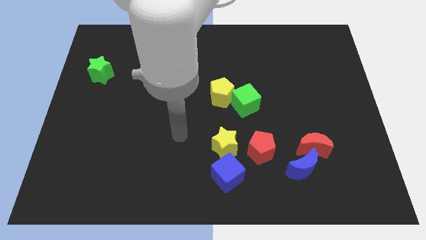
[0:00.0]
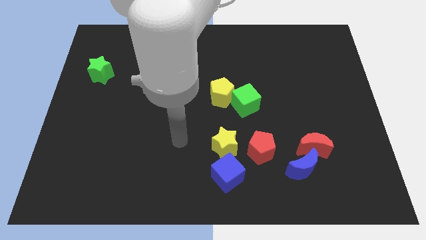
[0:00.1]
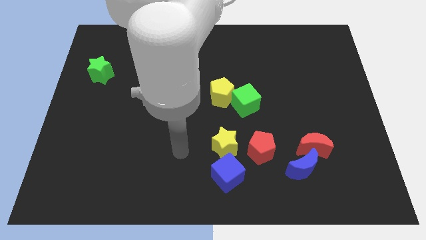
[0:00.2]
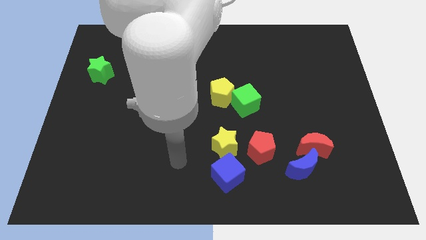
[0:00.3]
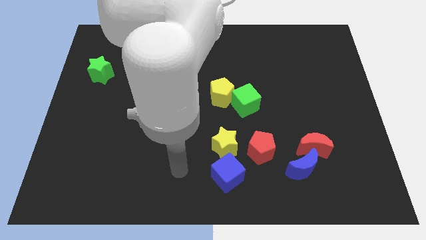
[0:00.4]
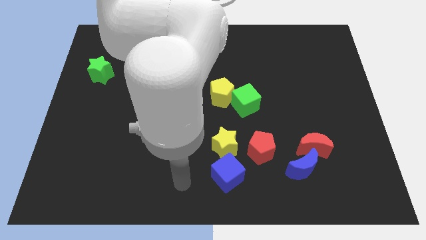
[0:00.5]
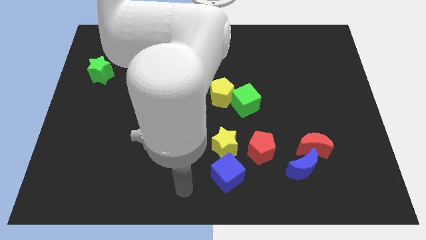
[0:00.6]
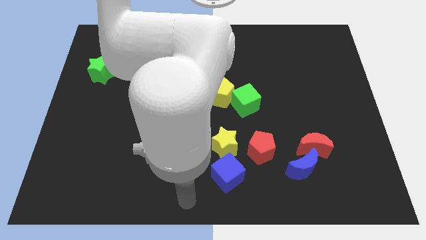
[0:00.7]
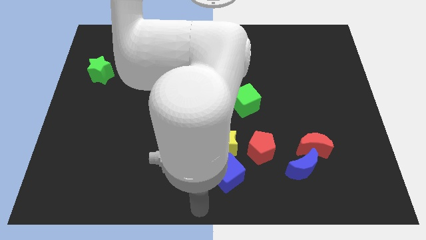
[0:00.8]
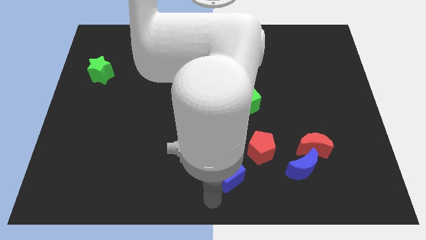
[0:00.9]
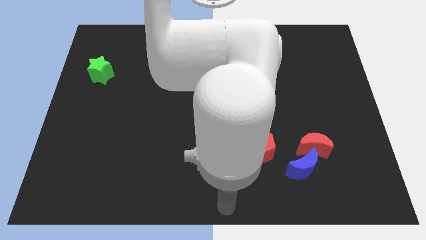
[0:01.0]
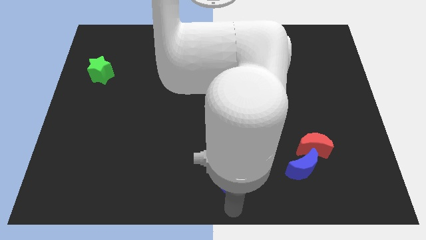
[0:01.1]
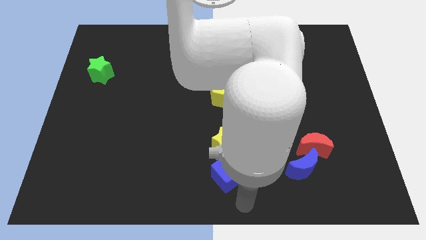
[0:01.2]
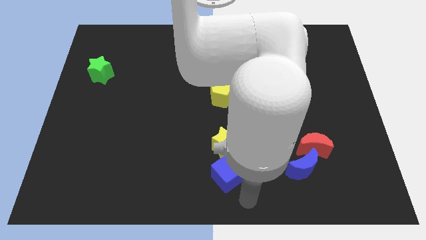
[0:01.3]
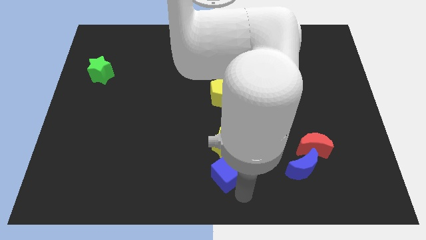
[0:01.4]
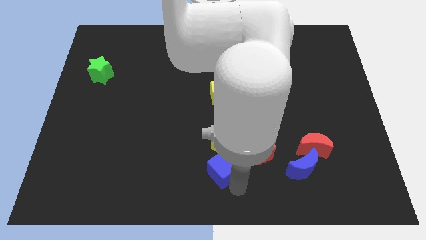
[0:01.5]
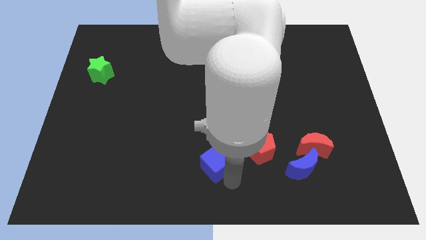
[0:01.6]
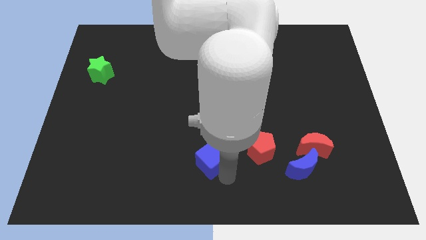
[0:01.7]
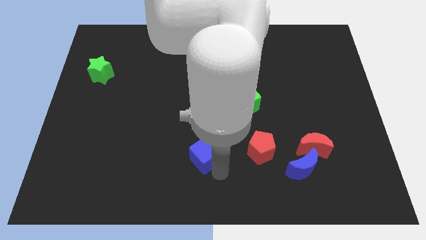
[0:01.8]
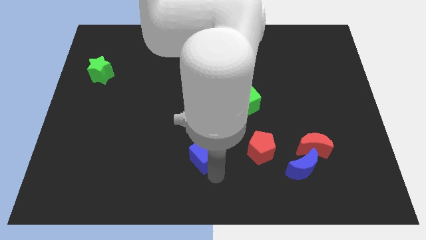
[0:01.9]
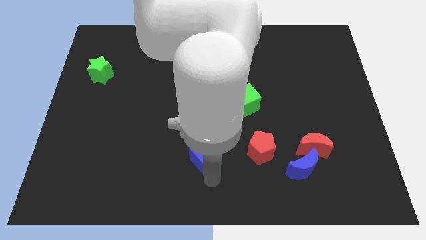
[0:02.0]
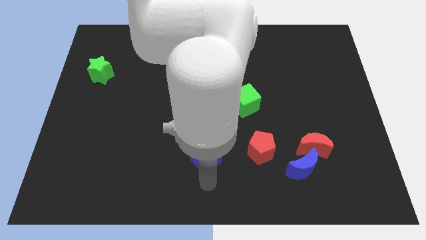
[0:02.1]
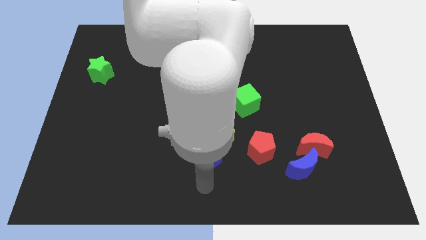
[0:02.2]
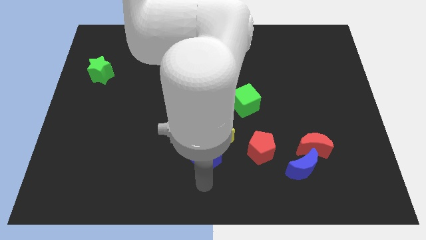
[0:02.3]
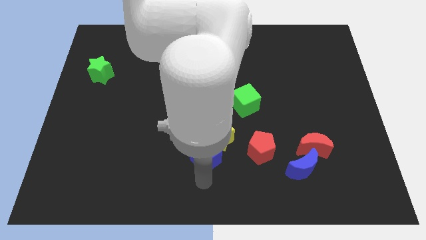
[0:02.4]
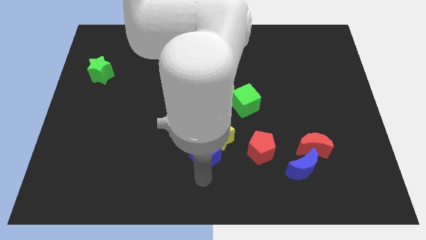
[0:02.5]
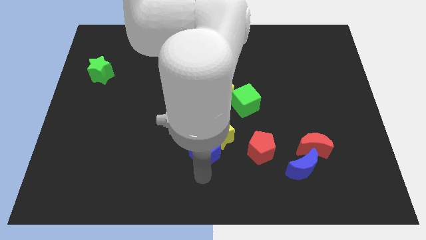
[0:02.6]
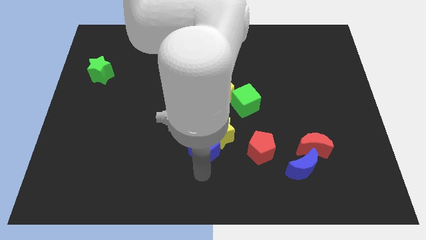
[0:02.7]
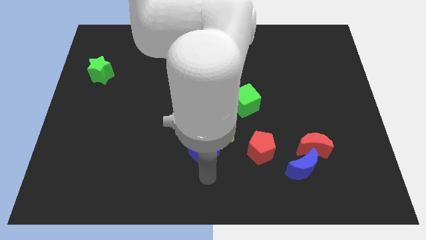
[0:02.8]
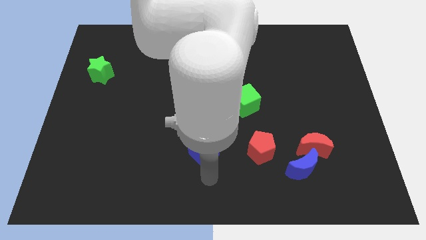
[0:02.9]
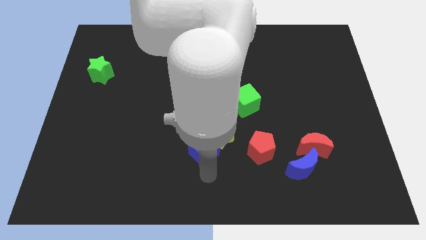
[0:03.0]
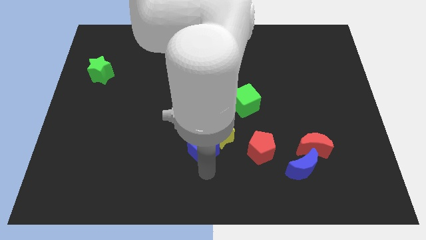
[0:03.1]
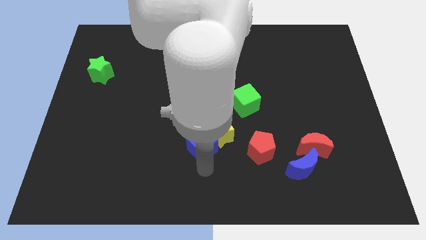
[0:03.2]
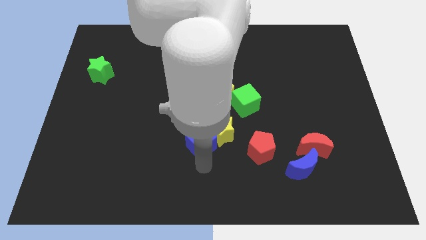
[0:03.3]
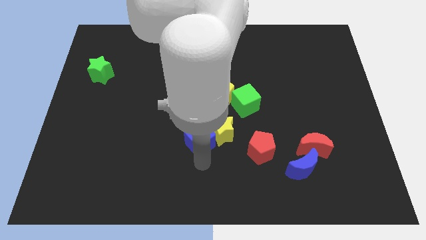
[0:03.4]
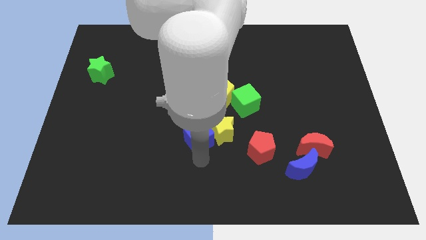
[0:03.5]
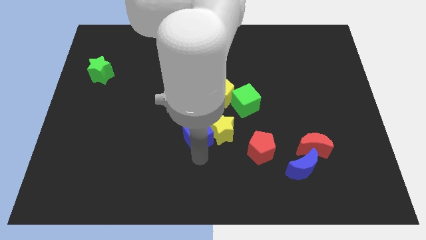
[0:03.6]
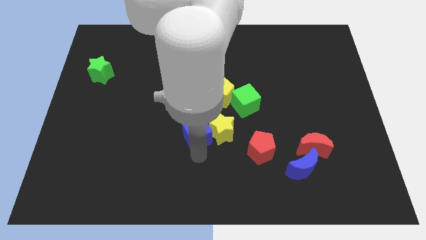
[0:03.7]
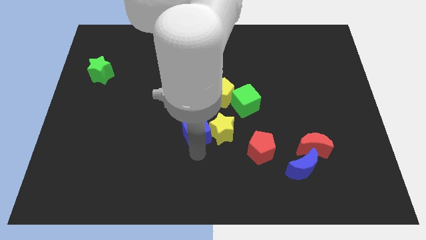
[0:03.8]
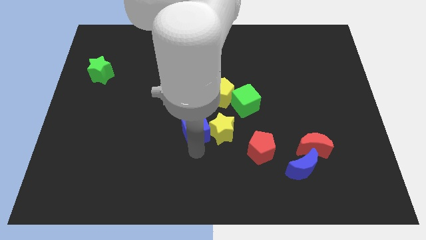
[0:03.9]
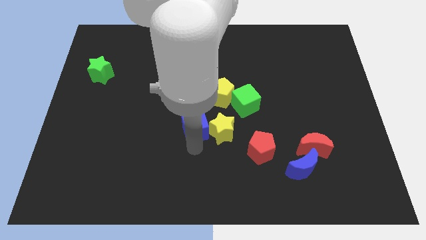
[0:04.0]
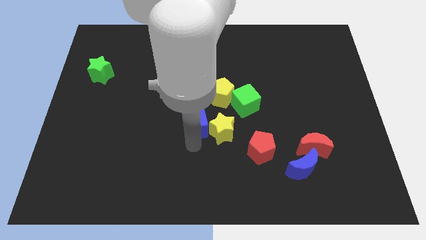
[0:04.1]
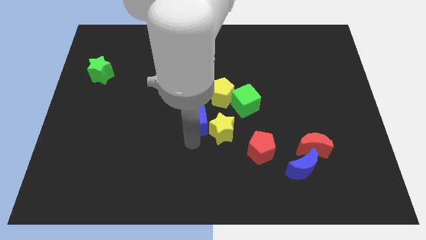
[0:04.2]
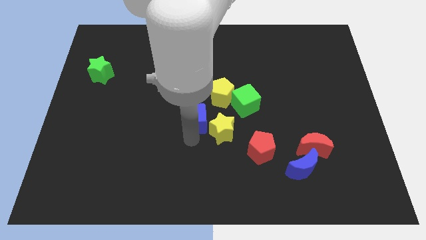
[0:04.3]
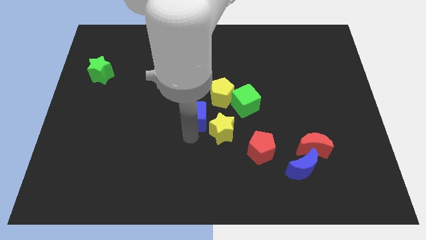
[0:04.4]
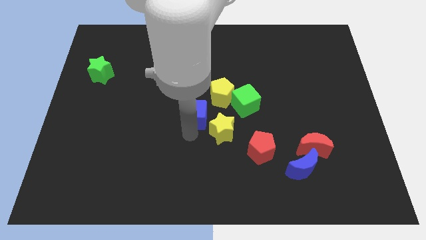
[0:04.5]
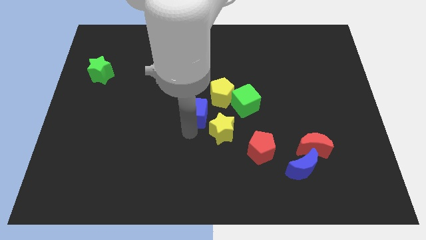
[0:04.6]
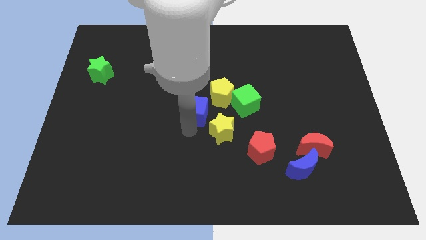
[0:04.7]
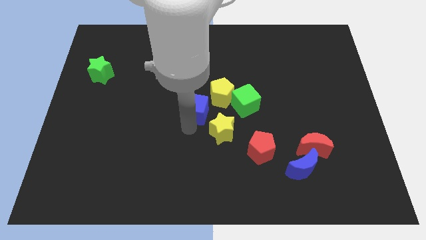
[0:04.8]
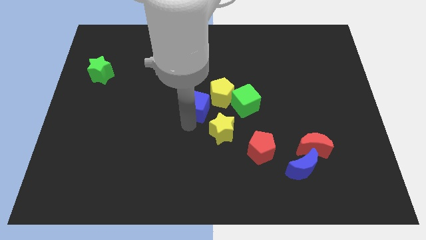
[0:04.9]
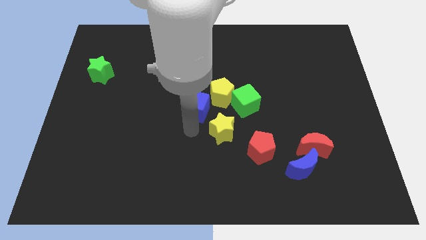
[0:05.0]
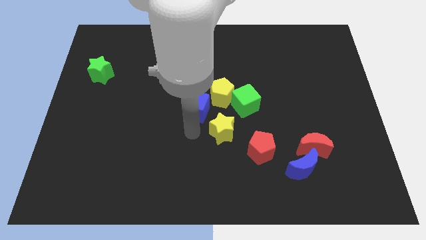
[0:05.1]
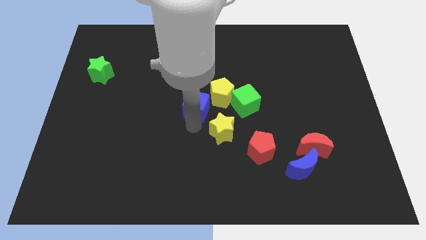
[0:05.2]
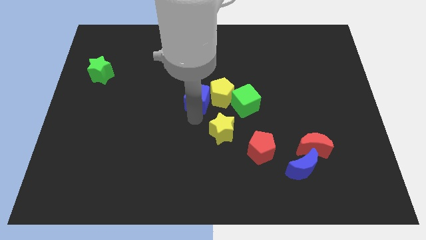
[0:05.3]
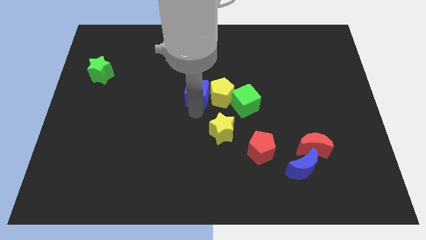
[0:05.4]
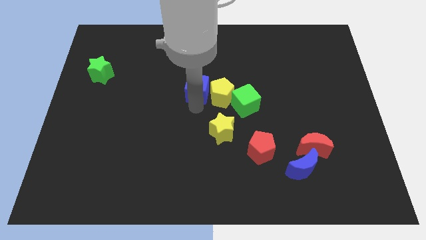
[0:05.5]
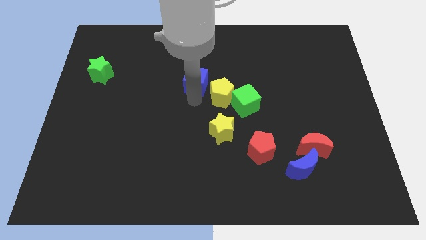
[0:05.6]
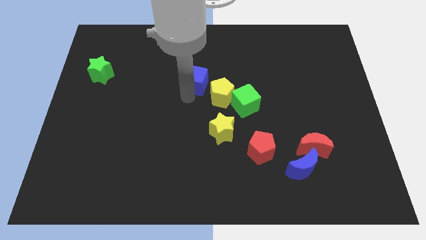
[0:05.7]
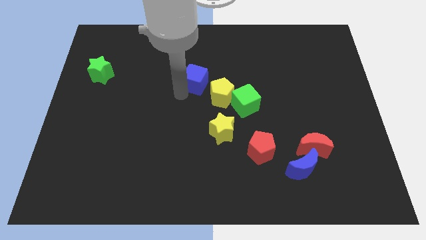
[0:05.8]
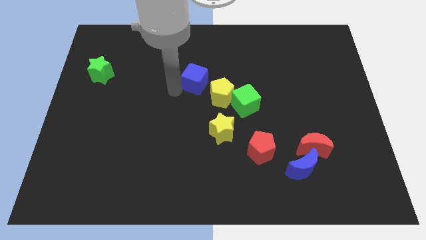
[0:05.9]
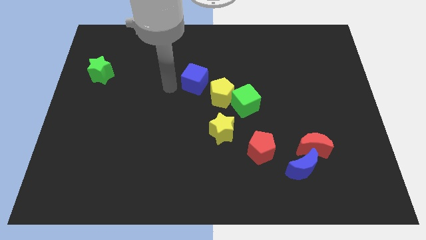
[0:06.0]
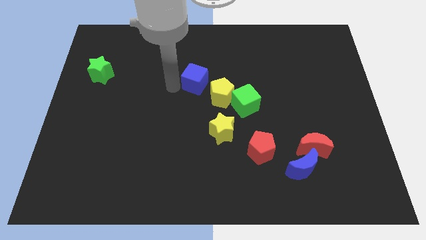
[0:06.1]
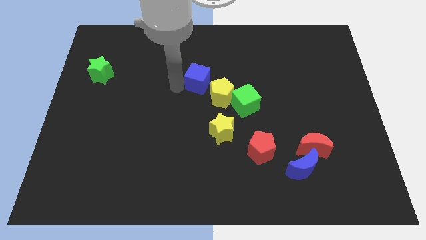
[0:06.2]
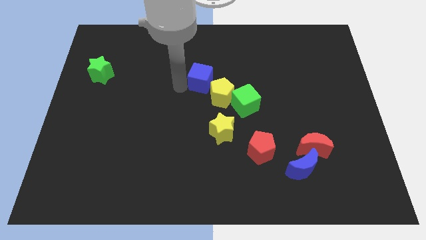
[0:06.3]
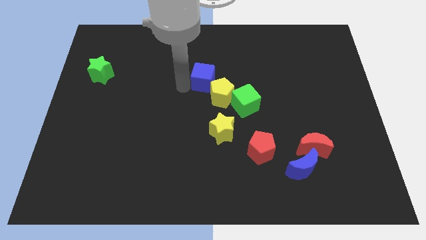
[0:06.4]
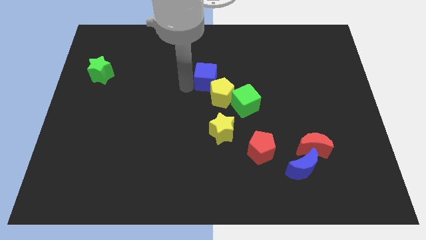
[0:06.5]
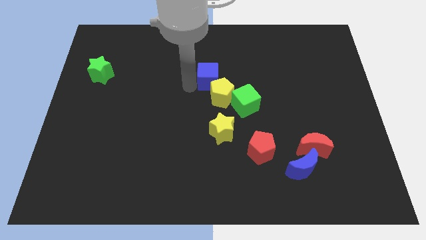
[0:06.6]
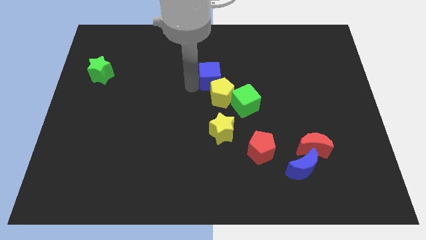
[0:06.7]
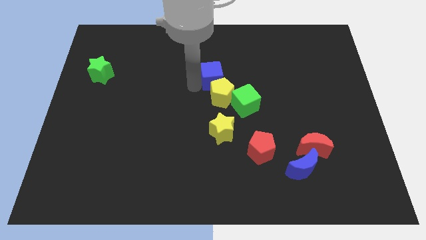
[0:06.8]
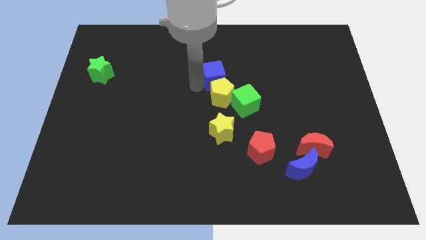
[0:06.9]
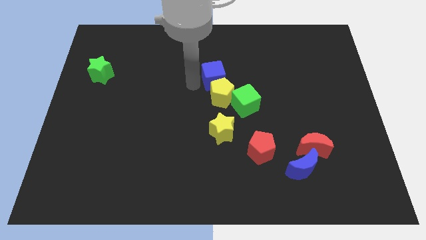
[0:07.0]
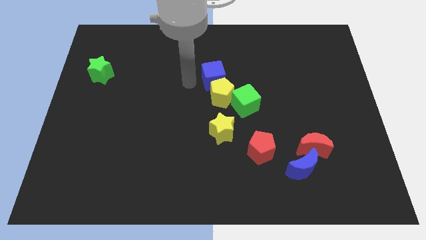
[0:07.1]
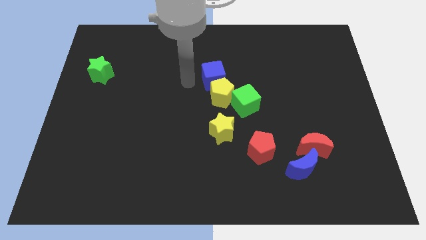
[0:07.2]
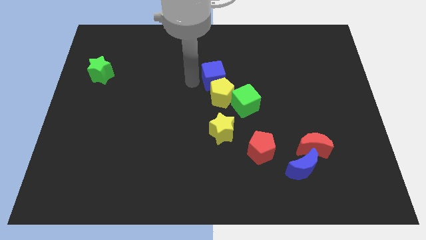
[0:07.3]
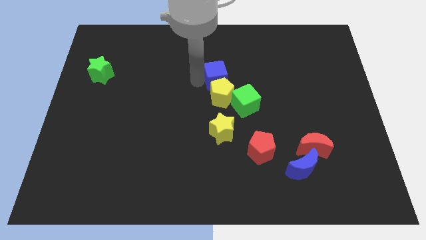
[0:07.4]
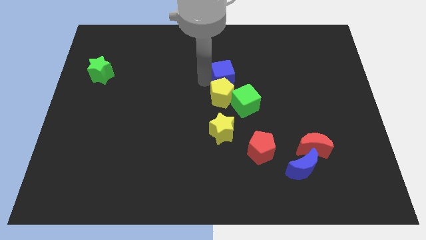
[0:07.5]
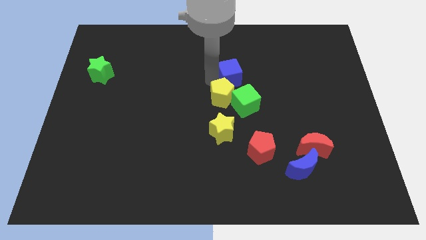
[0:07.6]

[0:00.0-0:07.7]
move the blue cube to the top of the green cube
